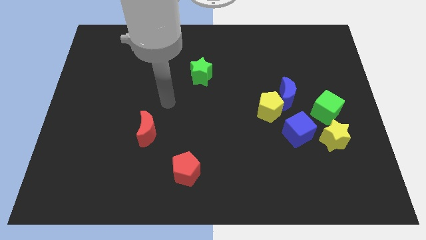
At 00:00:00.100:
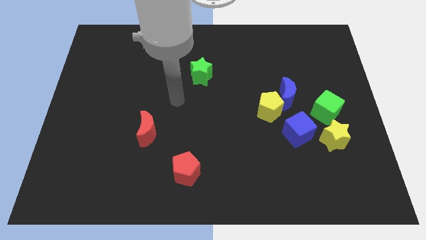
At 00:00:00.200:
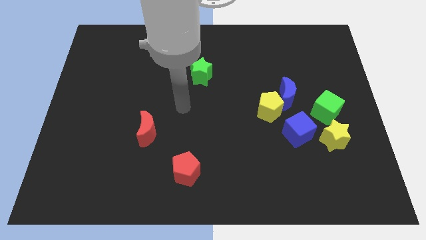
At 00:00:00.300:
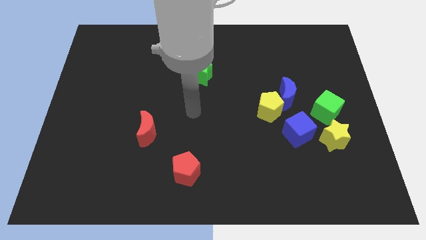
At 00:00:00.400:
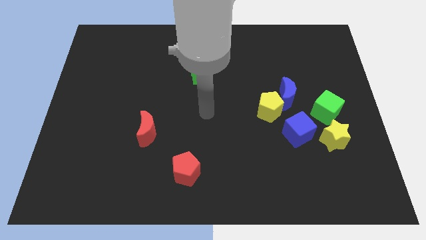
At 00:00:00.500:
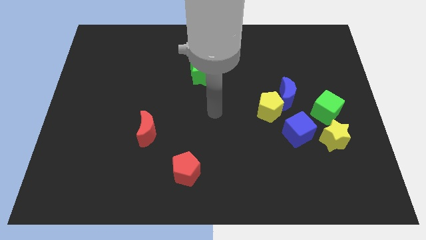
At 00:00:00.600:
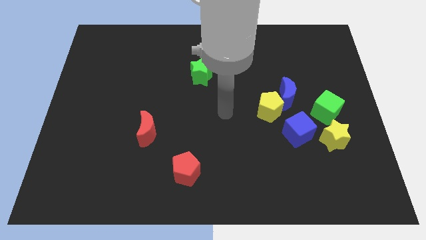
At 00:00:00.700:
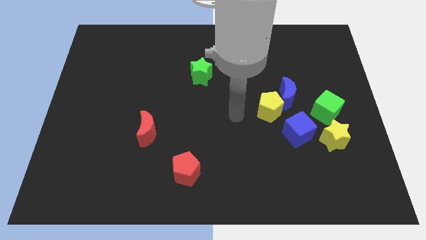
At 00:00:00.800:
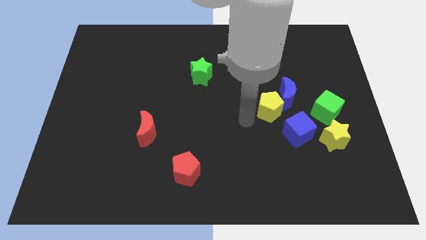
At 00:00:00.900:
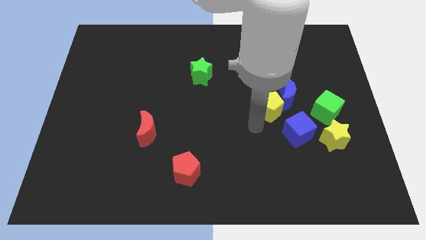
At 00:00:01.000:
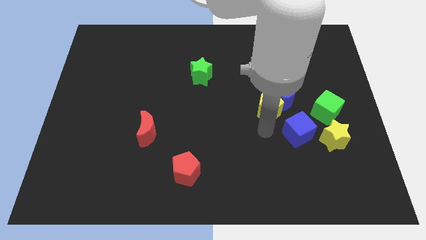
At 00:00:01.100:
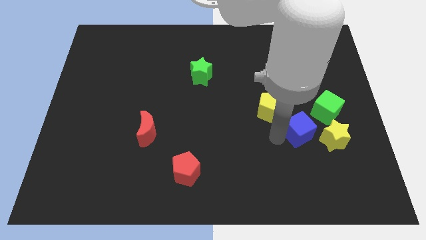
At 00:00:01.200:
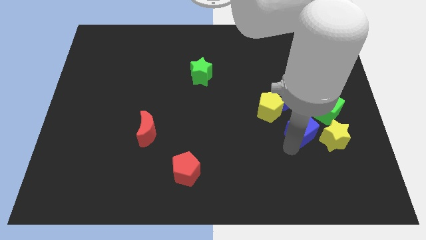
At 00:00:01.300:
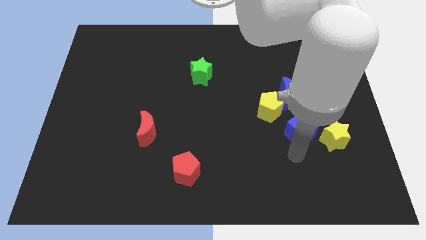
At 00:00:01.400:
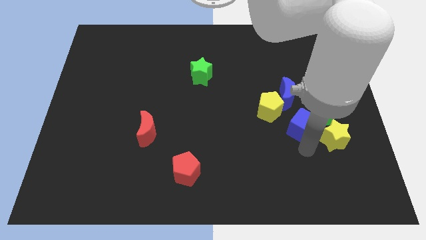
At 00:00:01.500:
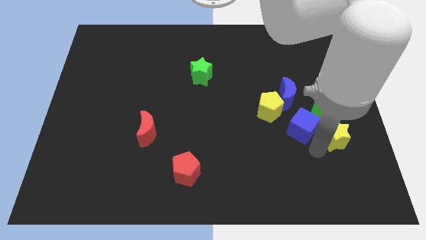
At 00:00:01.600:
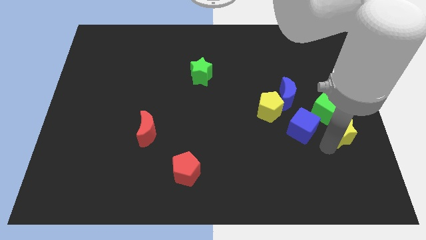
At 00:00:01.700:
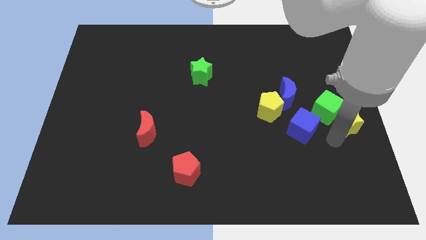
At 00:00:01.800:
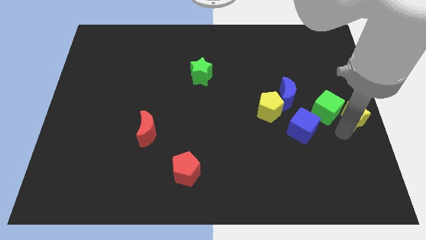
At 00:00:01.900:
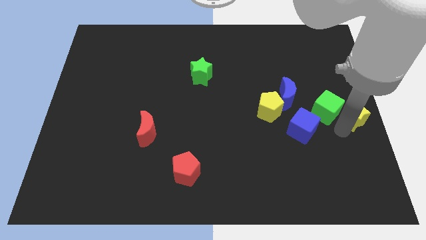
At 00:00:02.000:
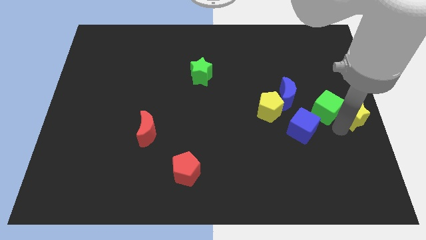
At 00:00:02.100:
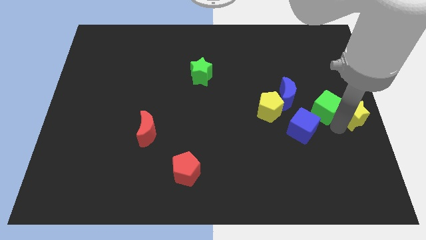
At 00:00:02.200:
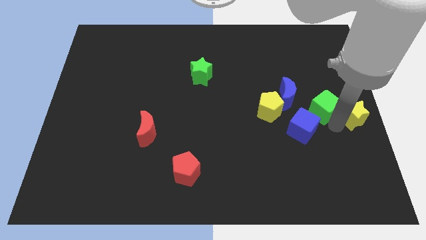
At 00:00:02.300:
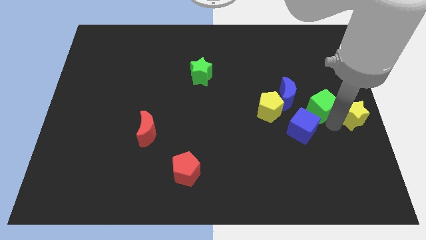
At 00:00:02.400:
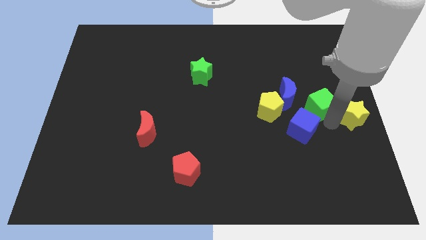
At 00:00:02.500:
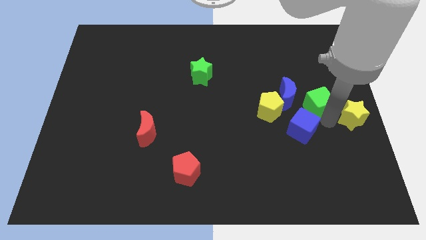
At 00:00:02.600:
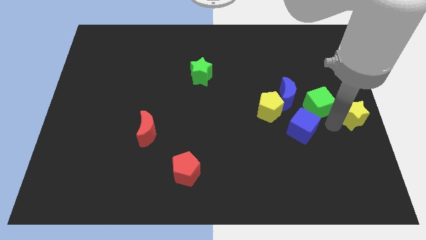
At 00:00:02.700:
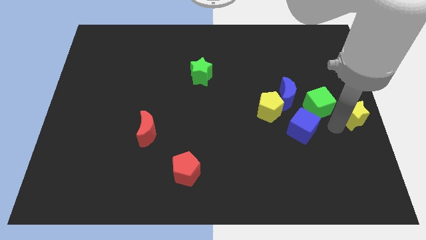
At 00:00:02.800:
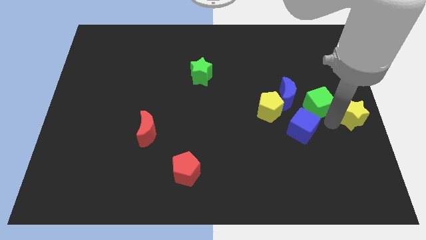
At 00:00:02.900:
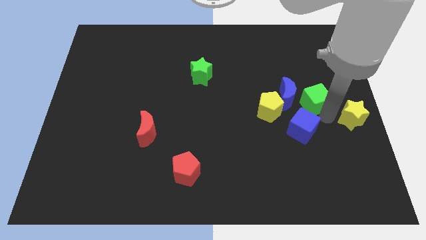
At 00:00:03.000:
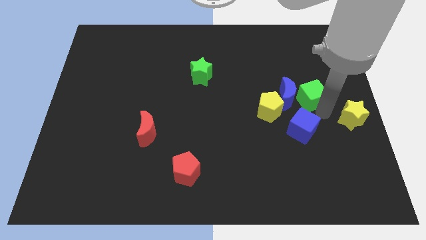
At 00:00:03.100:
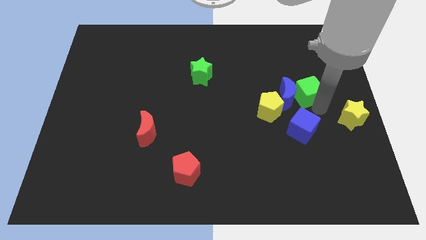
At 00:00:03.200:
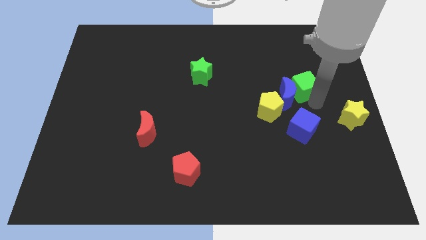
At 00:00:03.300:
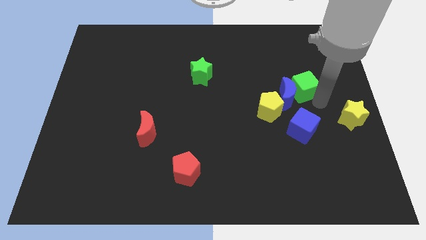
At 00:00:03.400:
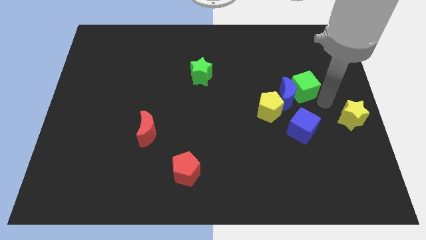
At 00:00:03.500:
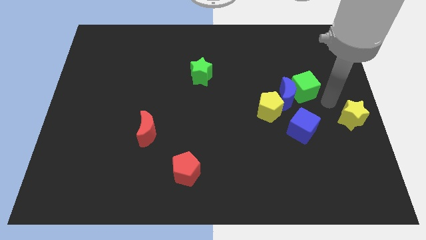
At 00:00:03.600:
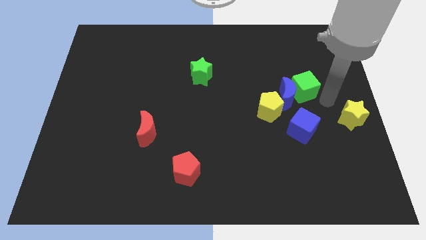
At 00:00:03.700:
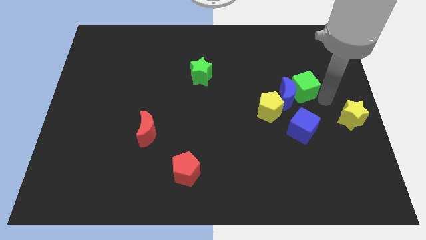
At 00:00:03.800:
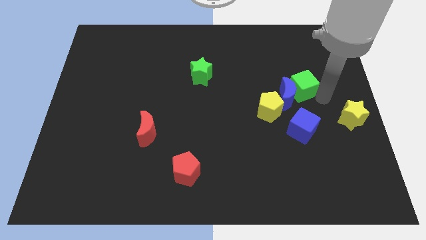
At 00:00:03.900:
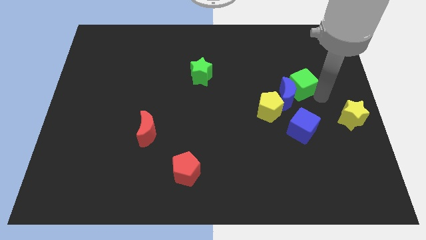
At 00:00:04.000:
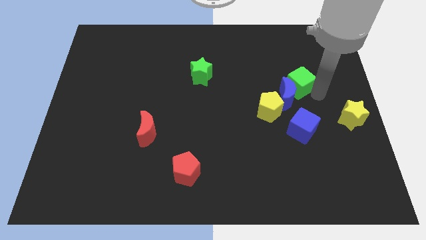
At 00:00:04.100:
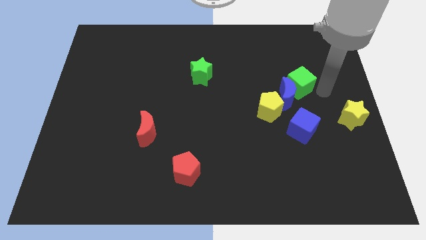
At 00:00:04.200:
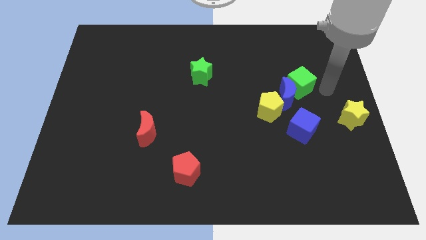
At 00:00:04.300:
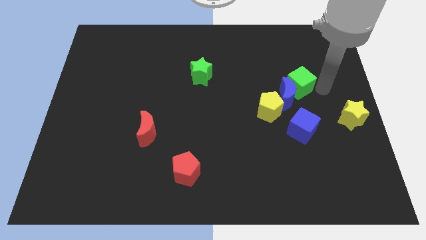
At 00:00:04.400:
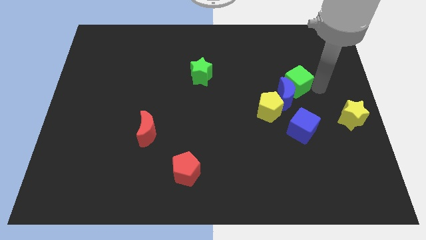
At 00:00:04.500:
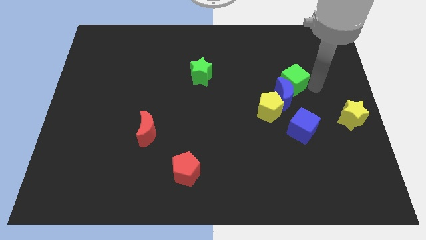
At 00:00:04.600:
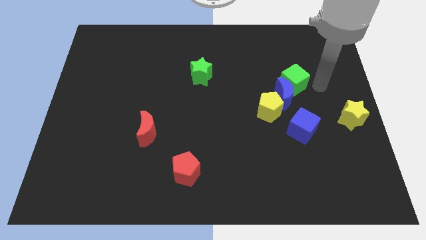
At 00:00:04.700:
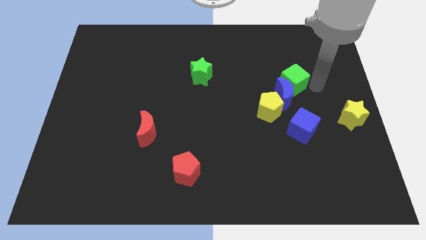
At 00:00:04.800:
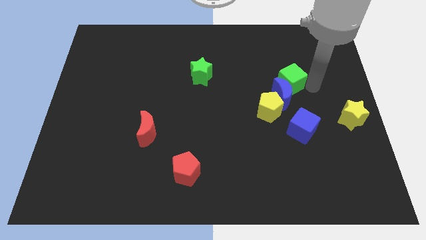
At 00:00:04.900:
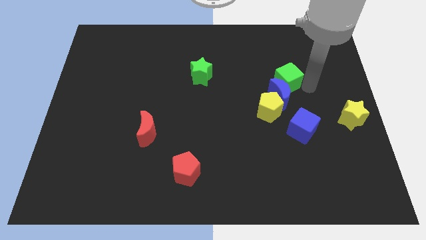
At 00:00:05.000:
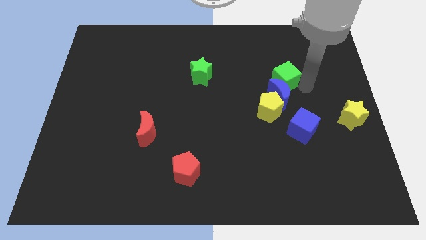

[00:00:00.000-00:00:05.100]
slide the green cube to the top left of the blue moon

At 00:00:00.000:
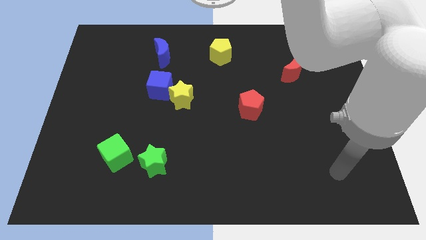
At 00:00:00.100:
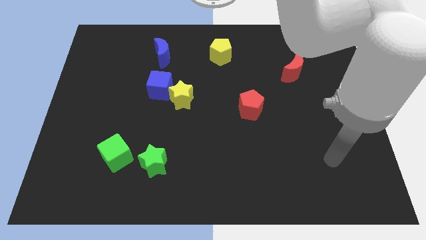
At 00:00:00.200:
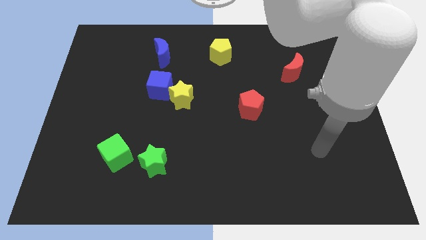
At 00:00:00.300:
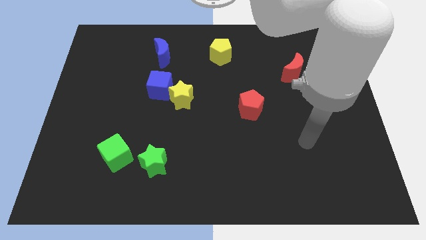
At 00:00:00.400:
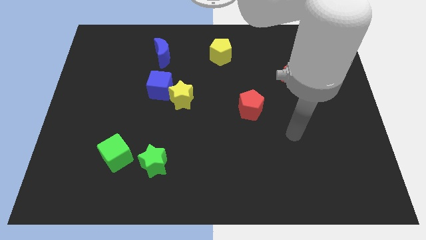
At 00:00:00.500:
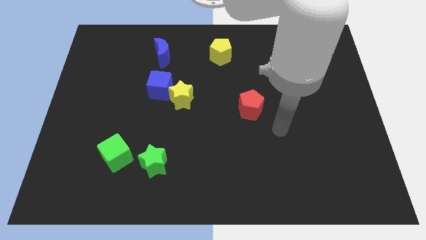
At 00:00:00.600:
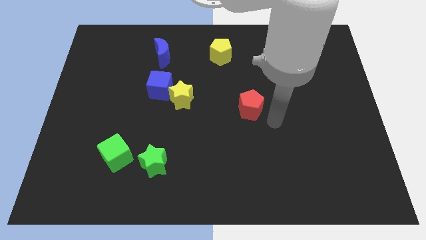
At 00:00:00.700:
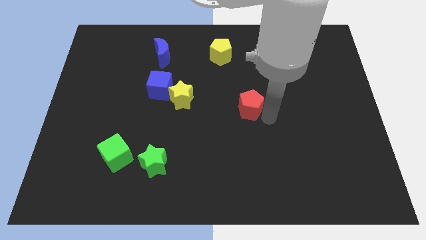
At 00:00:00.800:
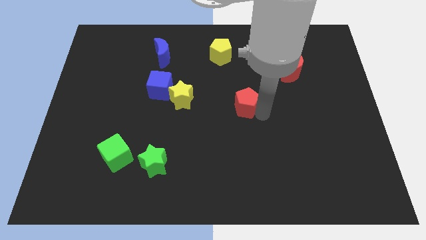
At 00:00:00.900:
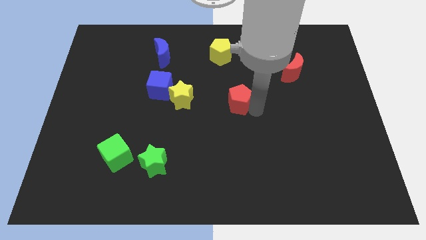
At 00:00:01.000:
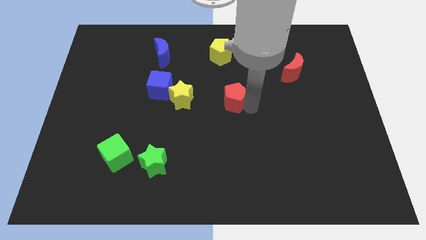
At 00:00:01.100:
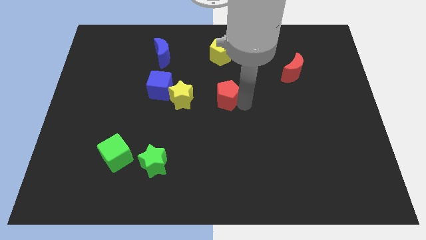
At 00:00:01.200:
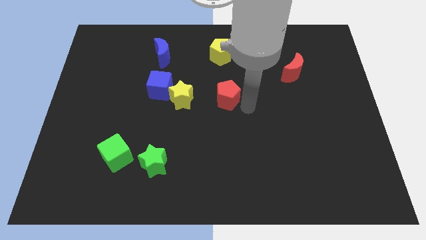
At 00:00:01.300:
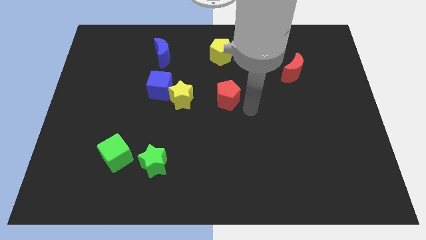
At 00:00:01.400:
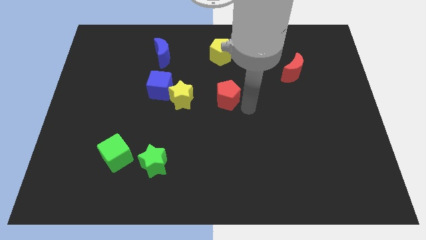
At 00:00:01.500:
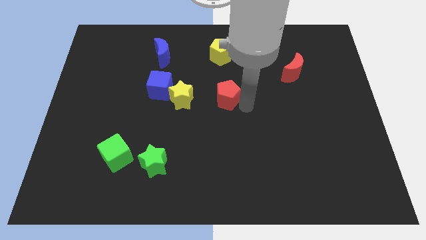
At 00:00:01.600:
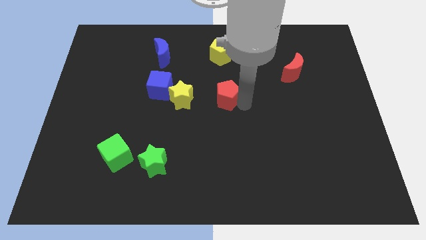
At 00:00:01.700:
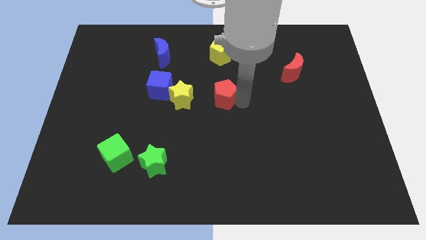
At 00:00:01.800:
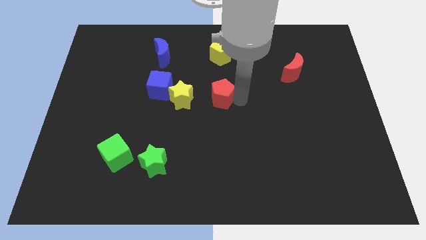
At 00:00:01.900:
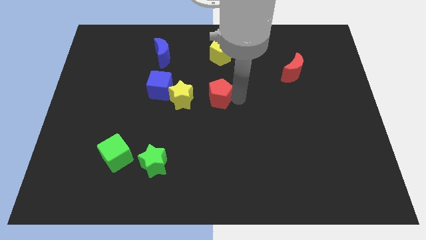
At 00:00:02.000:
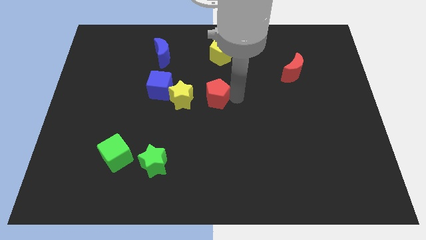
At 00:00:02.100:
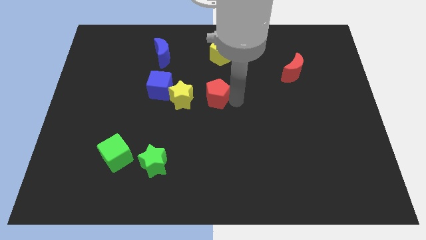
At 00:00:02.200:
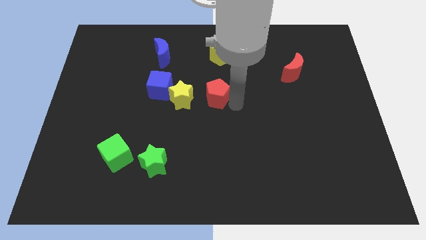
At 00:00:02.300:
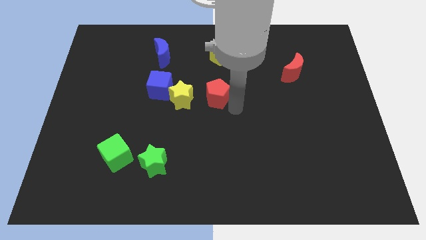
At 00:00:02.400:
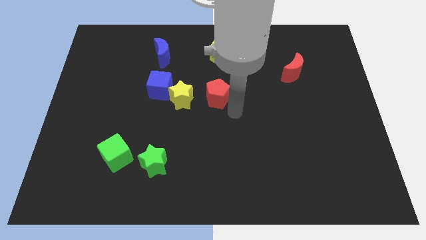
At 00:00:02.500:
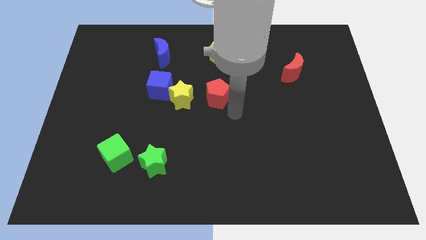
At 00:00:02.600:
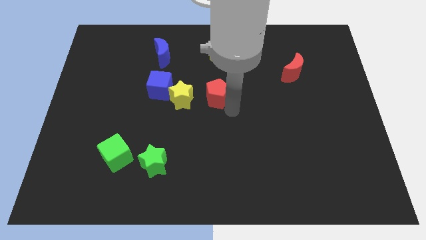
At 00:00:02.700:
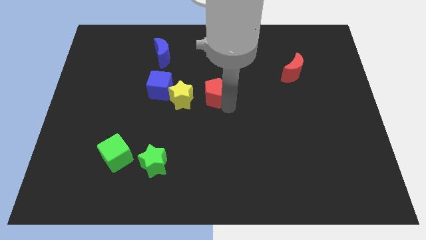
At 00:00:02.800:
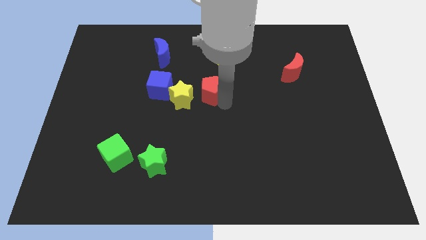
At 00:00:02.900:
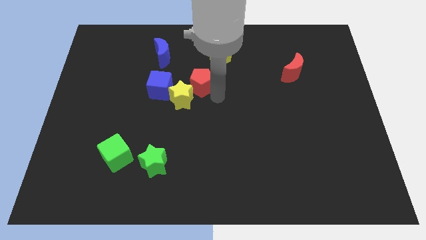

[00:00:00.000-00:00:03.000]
slide the red pentagon above the yellow star

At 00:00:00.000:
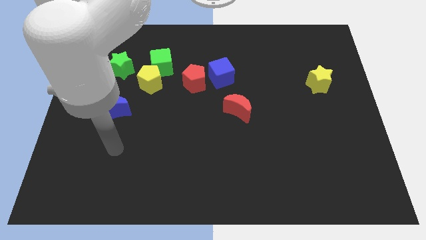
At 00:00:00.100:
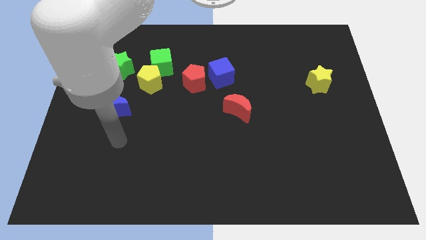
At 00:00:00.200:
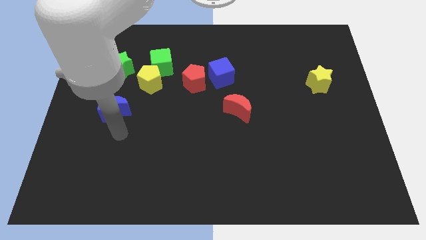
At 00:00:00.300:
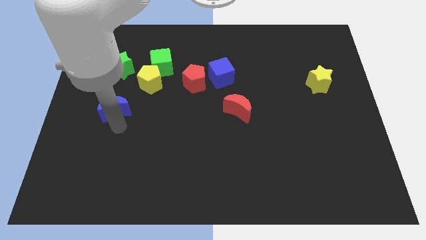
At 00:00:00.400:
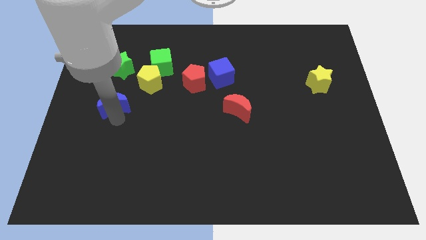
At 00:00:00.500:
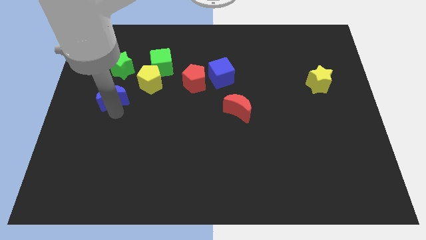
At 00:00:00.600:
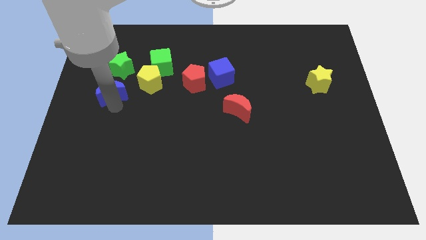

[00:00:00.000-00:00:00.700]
slide the blue moon to the left side of the yellow pentagon
